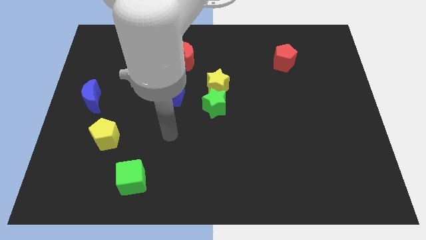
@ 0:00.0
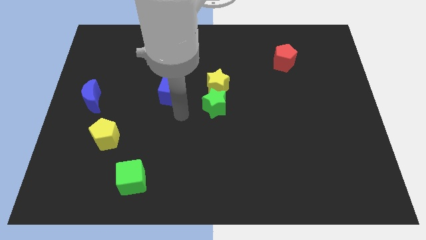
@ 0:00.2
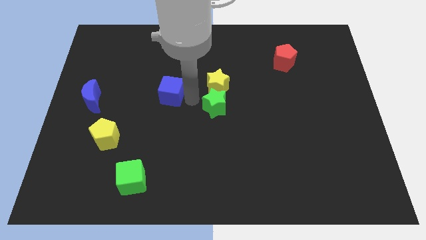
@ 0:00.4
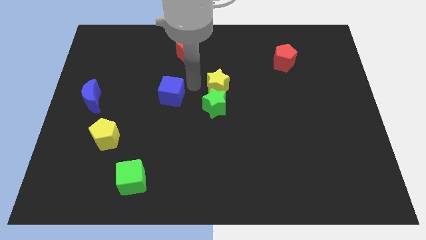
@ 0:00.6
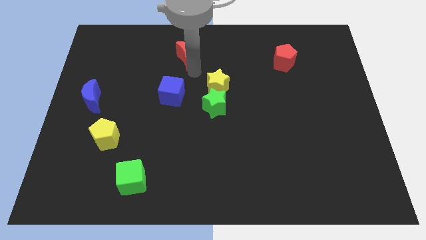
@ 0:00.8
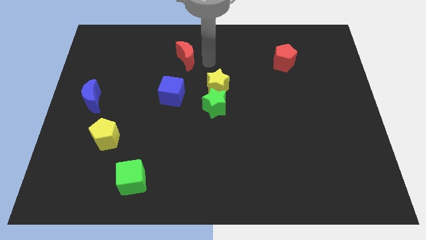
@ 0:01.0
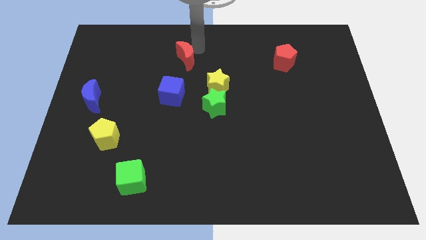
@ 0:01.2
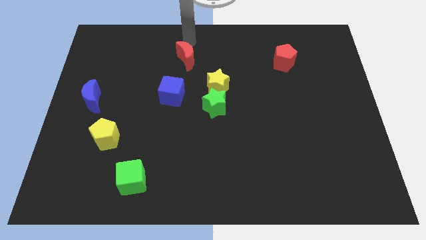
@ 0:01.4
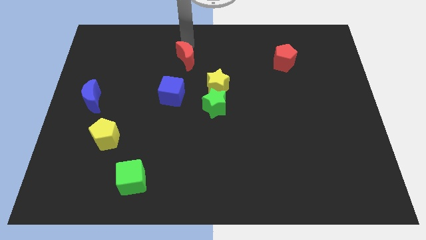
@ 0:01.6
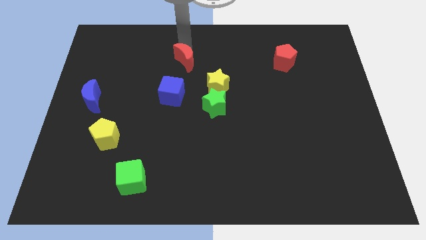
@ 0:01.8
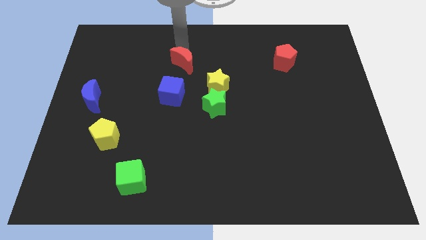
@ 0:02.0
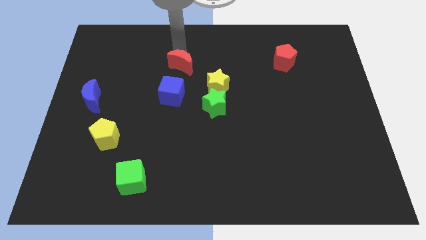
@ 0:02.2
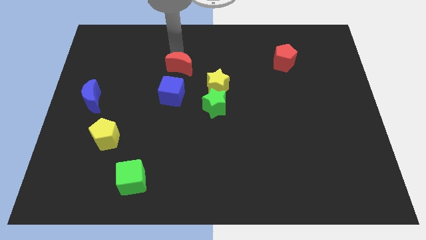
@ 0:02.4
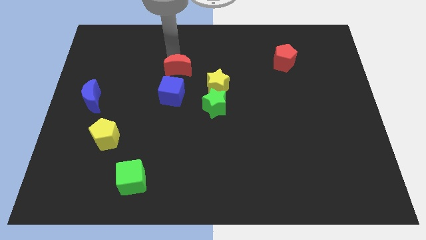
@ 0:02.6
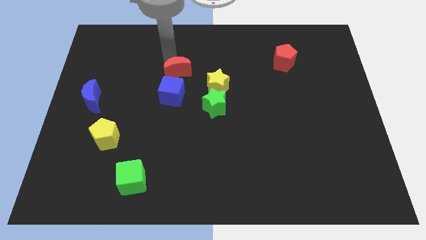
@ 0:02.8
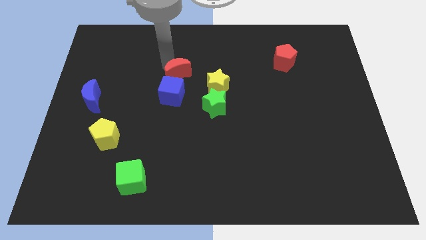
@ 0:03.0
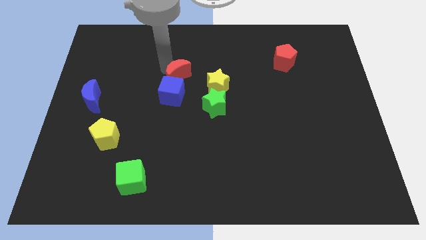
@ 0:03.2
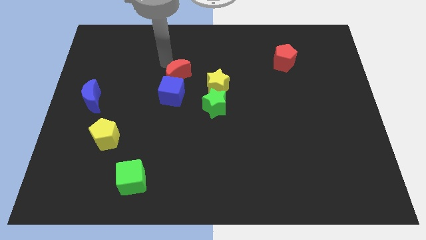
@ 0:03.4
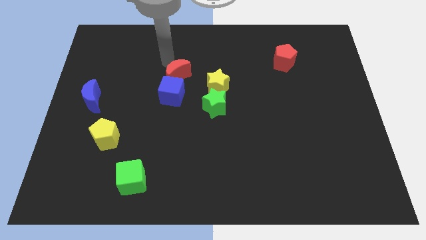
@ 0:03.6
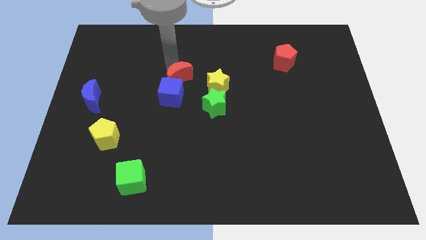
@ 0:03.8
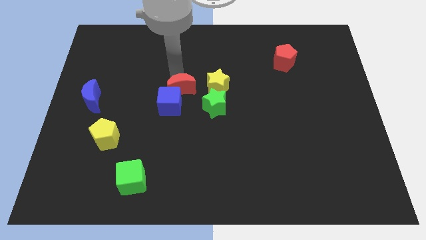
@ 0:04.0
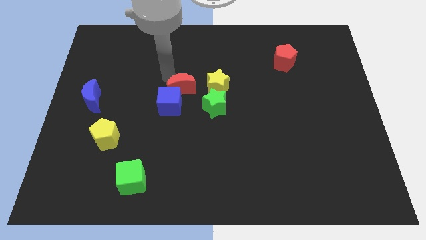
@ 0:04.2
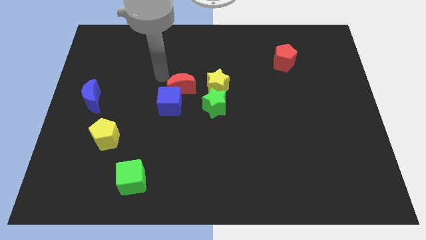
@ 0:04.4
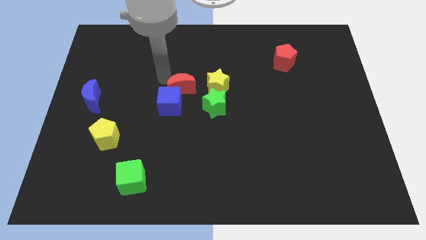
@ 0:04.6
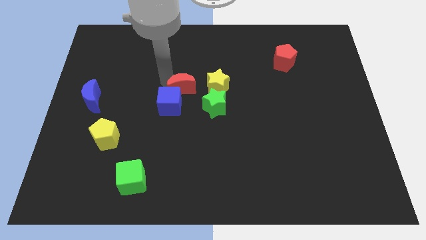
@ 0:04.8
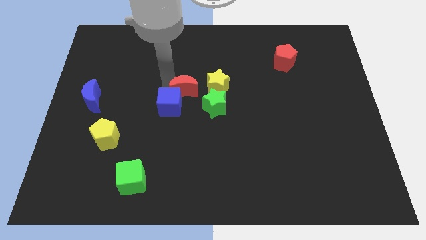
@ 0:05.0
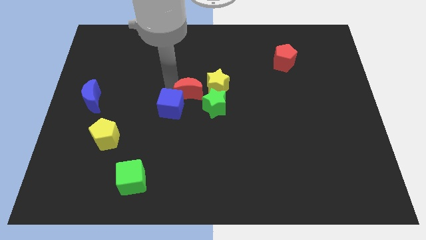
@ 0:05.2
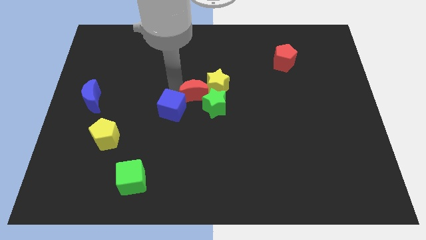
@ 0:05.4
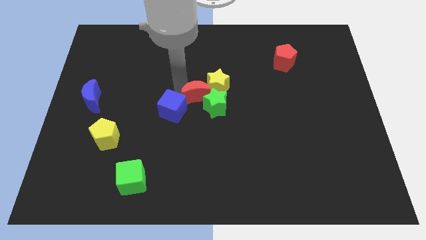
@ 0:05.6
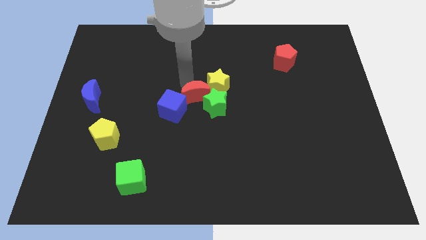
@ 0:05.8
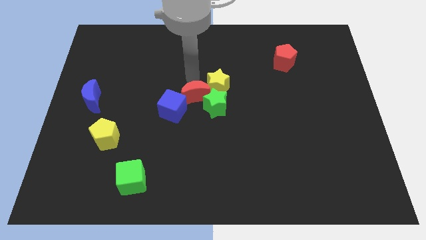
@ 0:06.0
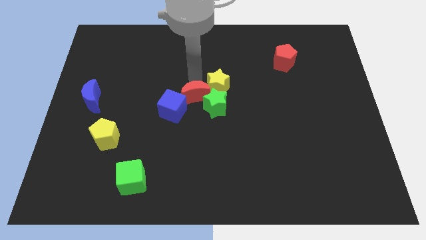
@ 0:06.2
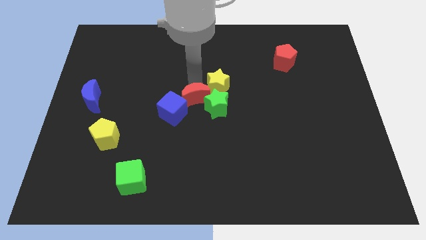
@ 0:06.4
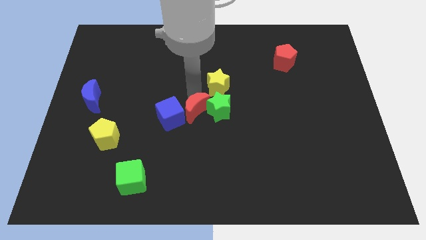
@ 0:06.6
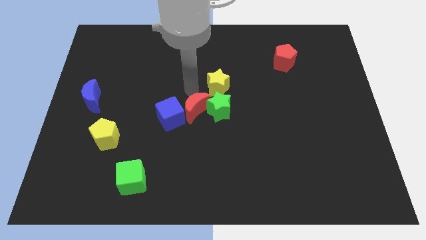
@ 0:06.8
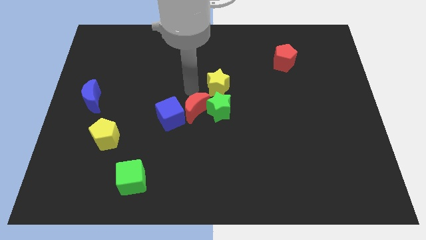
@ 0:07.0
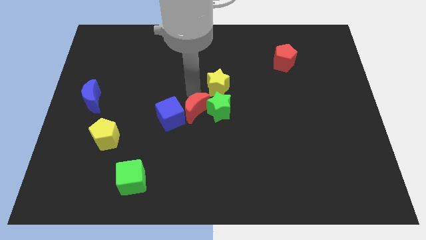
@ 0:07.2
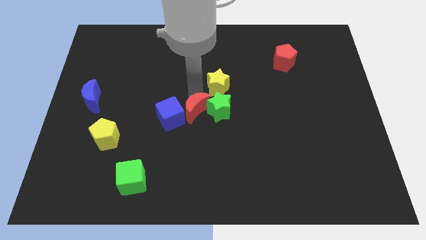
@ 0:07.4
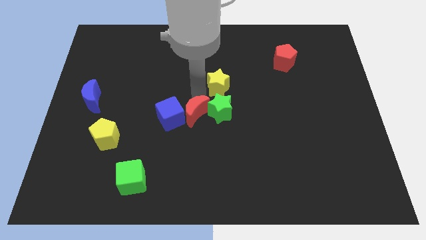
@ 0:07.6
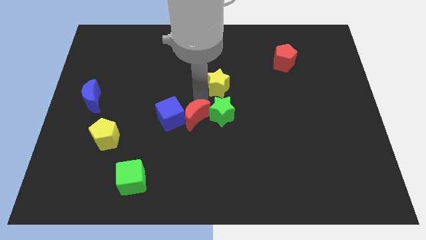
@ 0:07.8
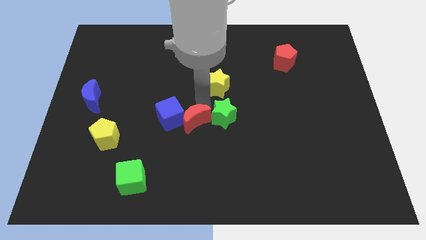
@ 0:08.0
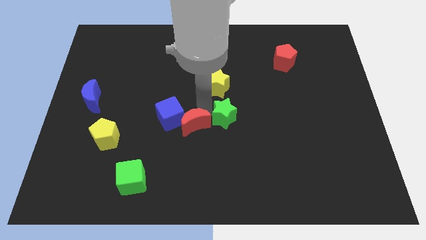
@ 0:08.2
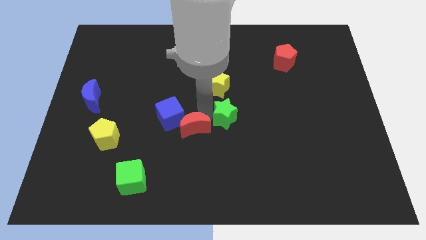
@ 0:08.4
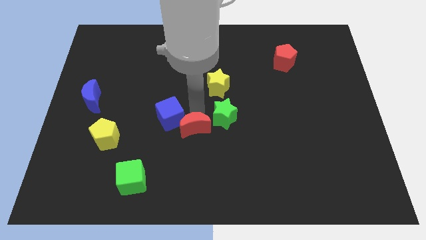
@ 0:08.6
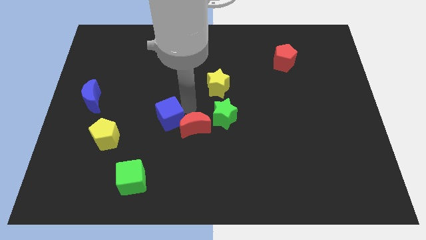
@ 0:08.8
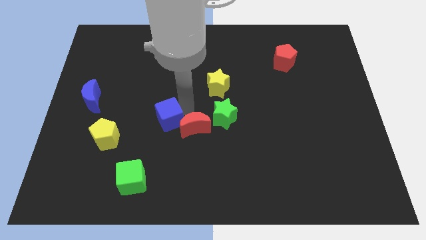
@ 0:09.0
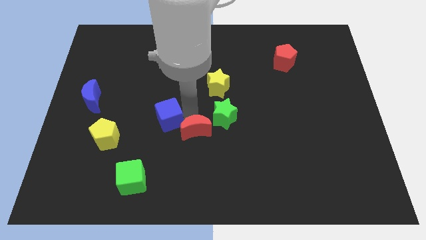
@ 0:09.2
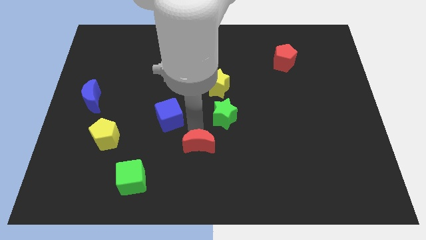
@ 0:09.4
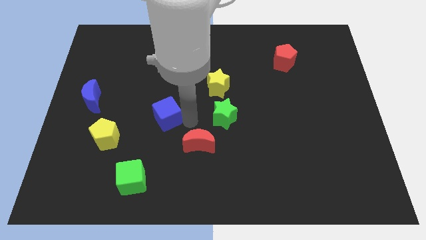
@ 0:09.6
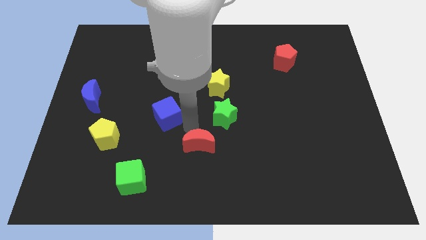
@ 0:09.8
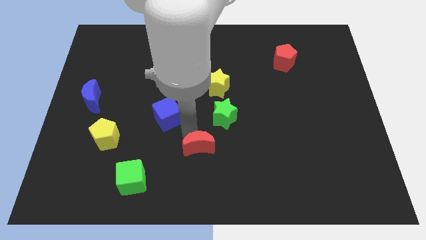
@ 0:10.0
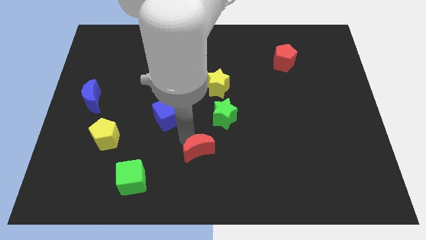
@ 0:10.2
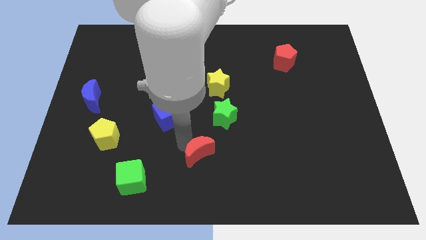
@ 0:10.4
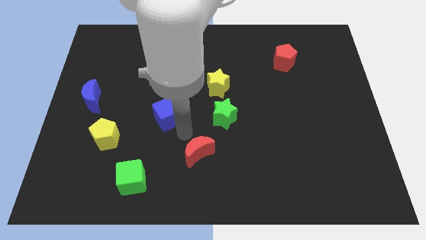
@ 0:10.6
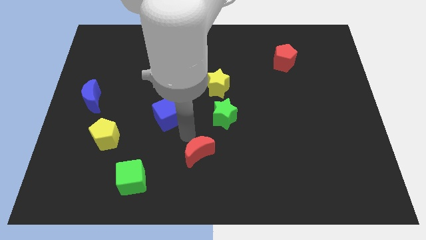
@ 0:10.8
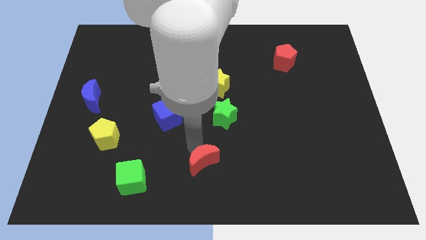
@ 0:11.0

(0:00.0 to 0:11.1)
put the red moon to the bottom side

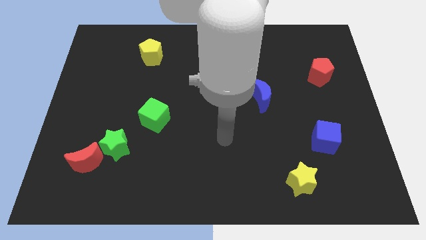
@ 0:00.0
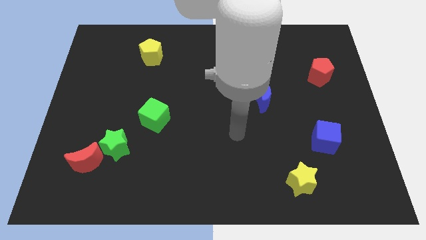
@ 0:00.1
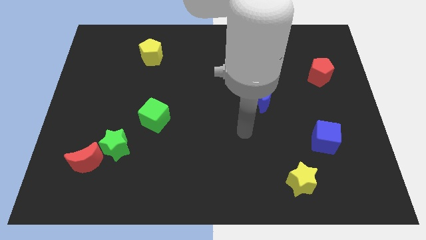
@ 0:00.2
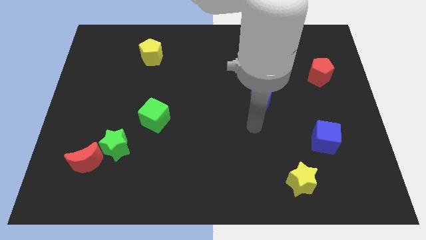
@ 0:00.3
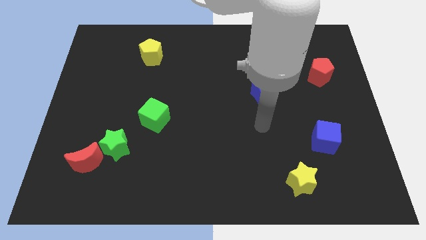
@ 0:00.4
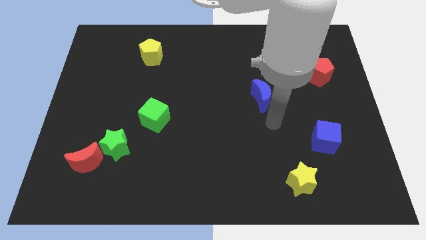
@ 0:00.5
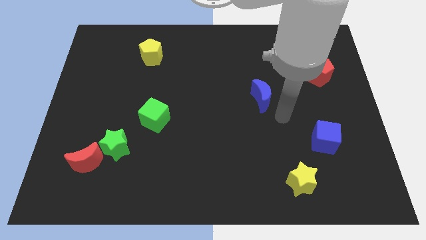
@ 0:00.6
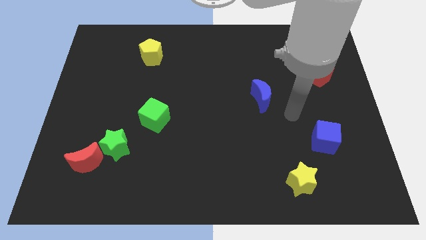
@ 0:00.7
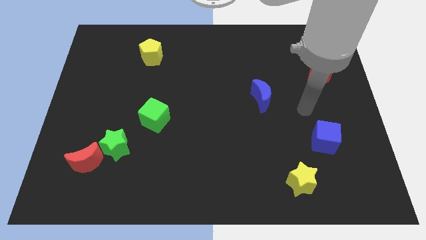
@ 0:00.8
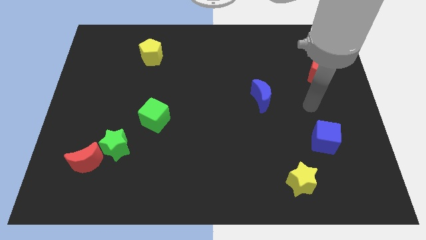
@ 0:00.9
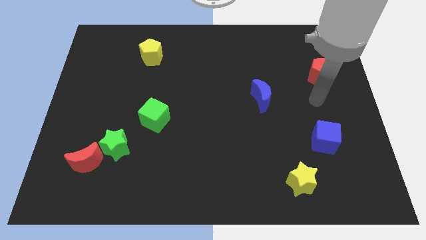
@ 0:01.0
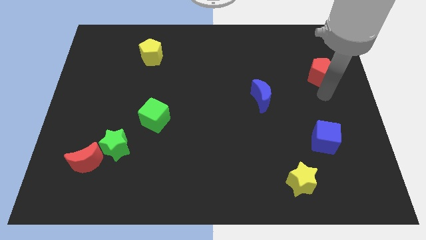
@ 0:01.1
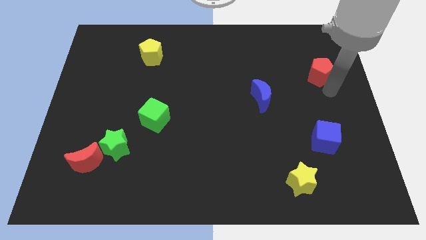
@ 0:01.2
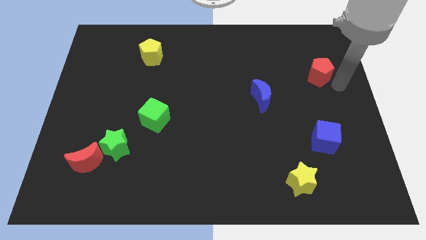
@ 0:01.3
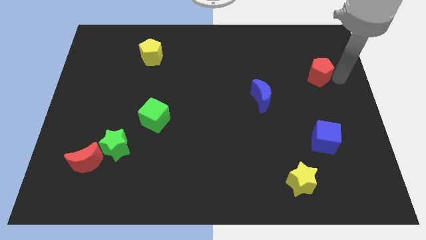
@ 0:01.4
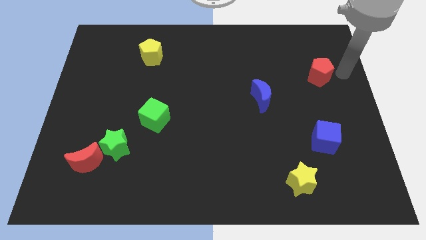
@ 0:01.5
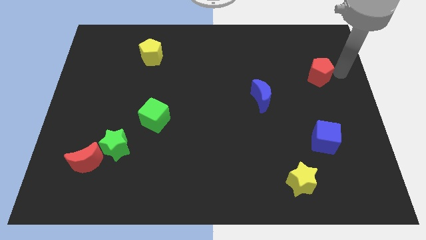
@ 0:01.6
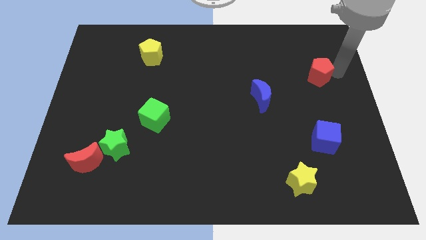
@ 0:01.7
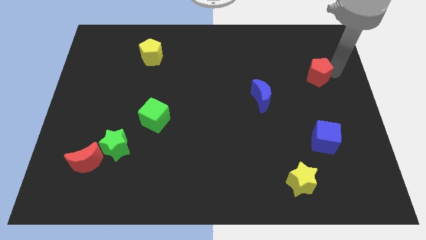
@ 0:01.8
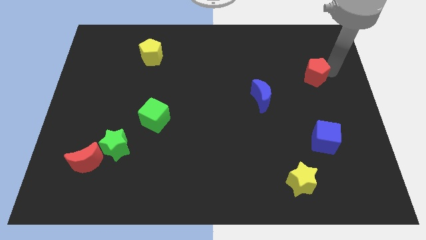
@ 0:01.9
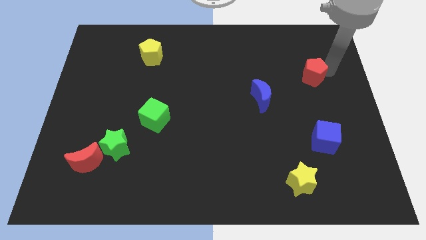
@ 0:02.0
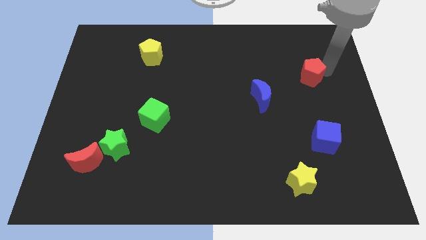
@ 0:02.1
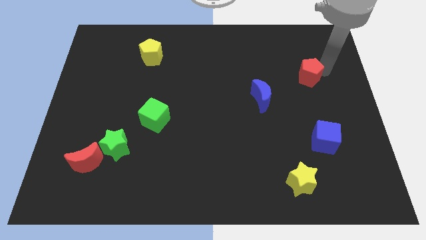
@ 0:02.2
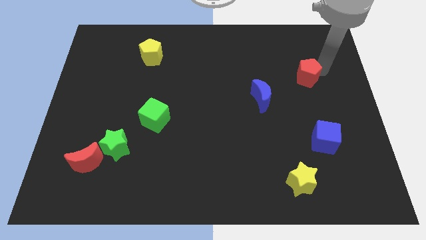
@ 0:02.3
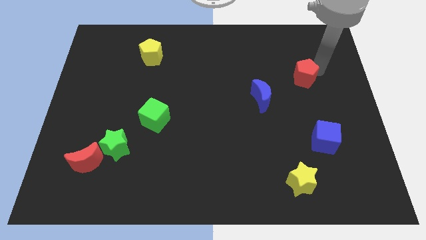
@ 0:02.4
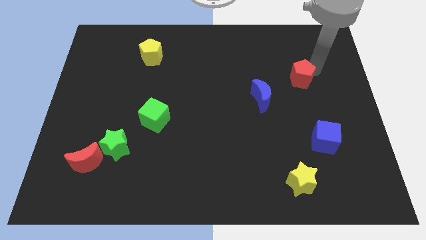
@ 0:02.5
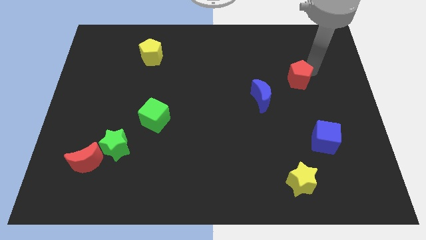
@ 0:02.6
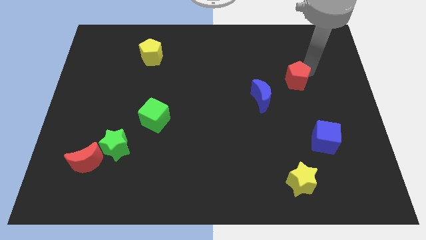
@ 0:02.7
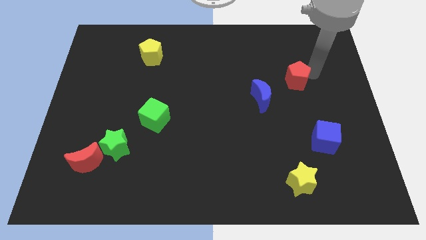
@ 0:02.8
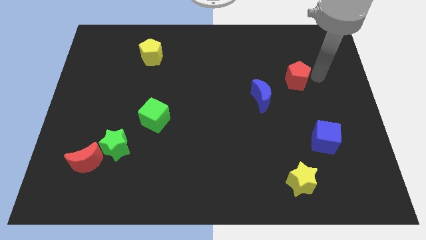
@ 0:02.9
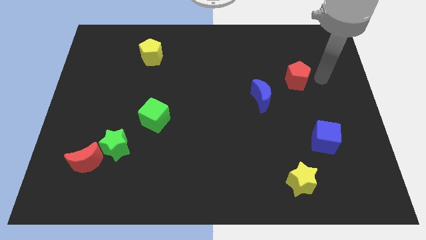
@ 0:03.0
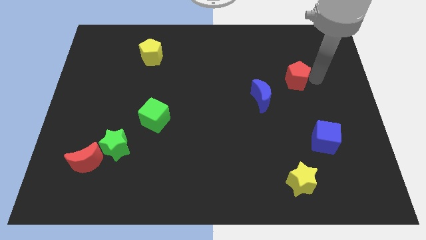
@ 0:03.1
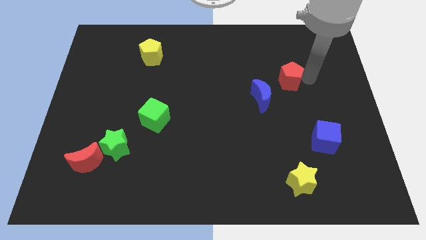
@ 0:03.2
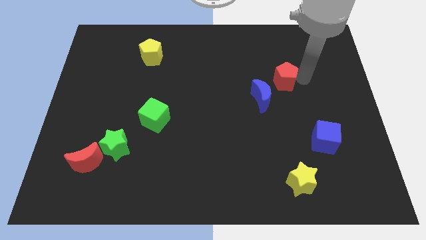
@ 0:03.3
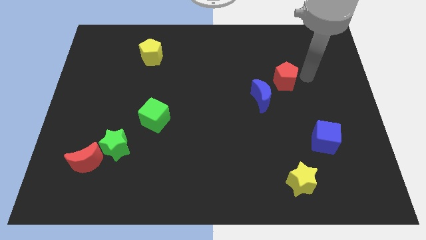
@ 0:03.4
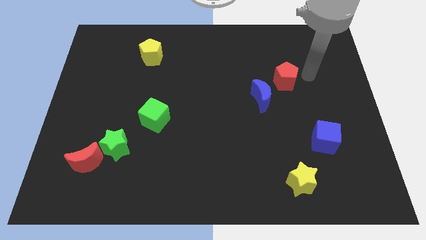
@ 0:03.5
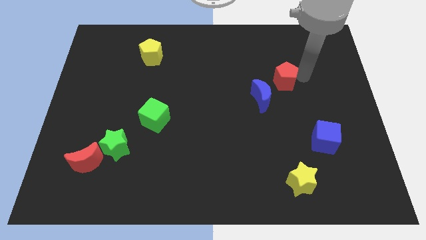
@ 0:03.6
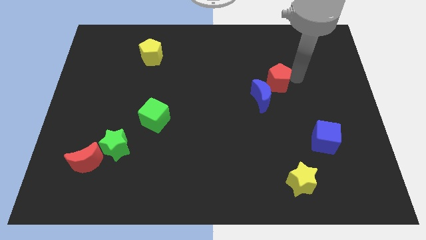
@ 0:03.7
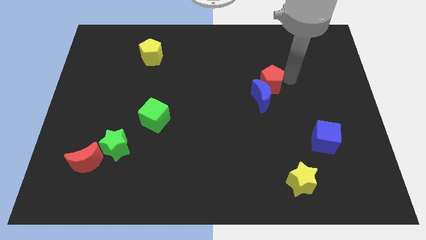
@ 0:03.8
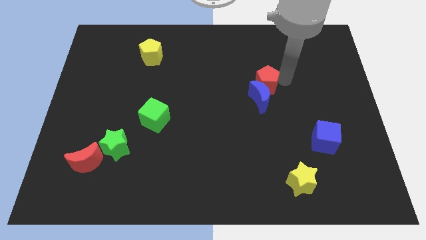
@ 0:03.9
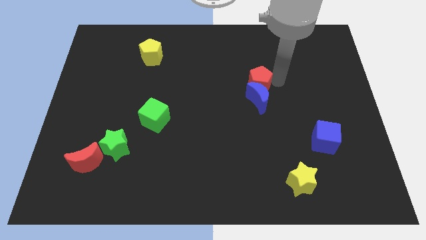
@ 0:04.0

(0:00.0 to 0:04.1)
put the red pentagon to the center
